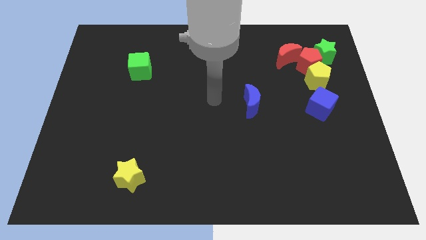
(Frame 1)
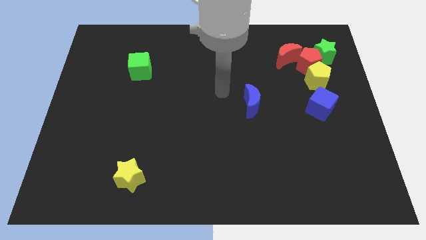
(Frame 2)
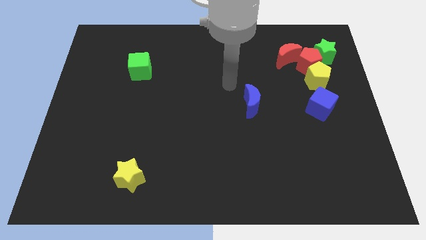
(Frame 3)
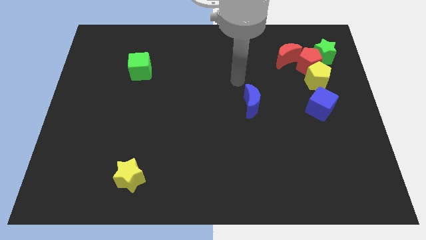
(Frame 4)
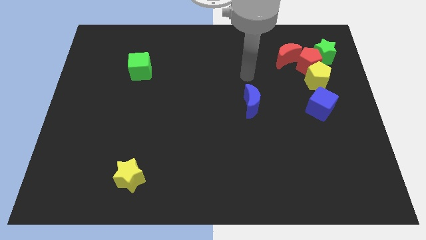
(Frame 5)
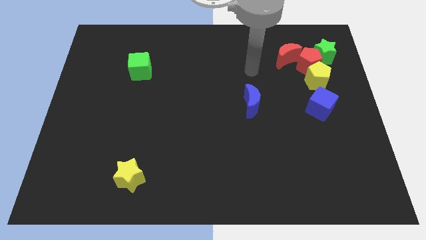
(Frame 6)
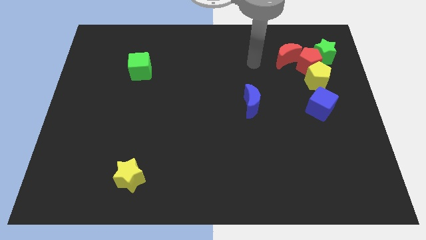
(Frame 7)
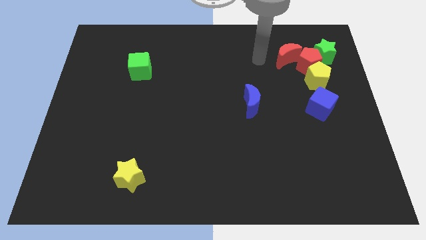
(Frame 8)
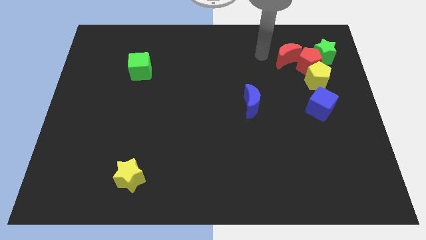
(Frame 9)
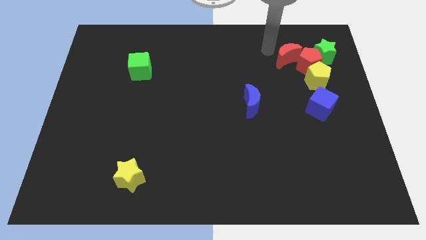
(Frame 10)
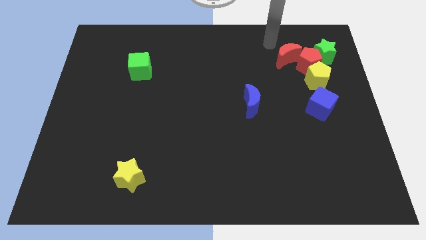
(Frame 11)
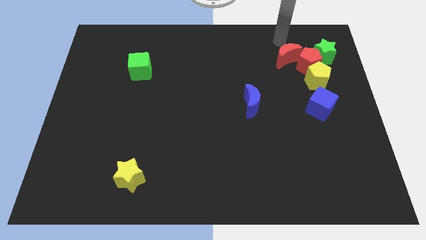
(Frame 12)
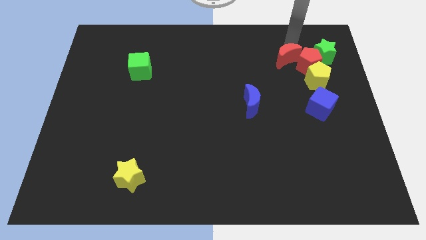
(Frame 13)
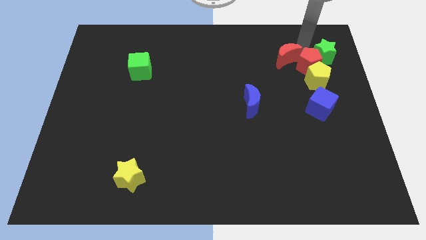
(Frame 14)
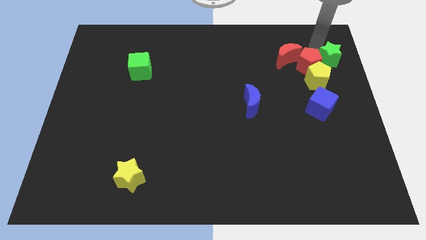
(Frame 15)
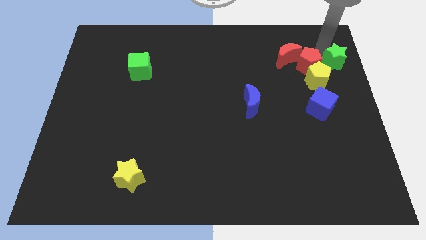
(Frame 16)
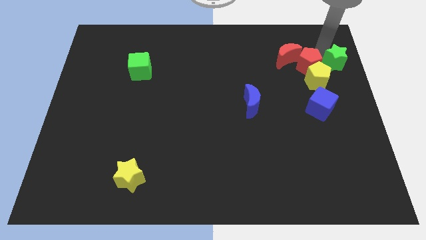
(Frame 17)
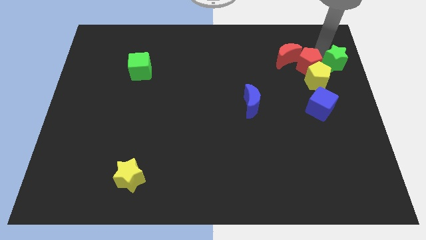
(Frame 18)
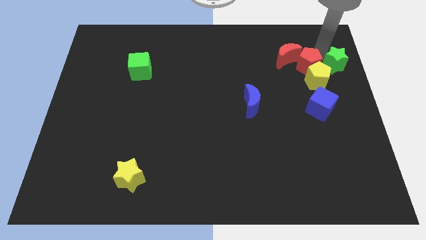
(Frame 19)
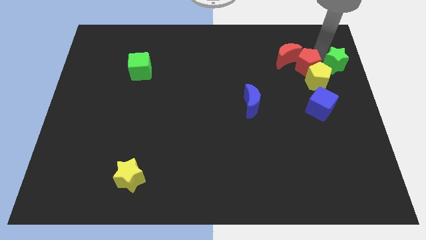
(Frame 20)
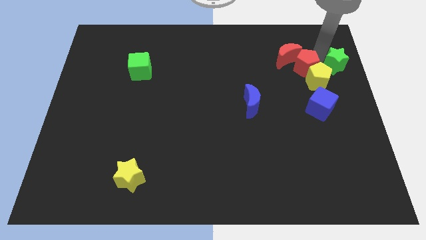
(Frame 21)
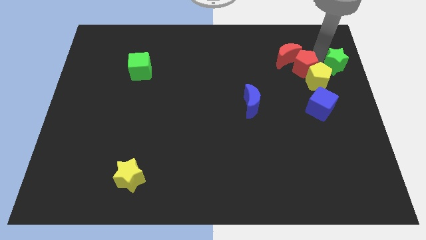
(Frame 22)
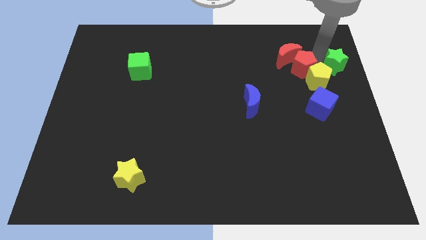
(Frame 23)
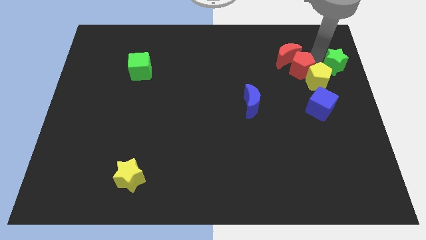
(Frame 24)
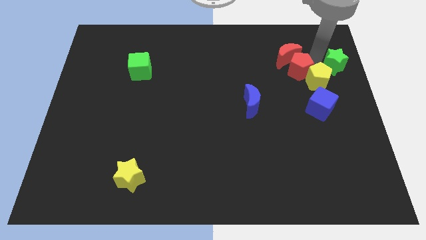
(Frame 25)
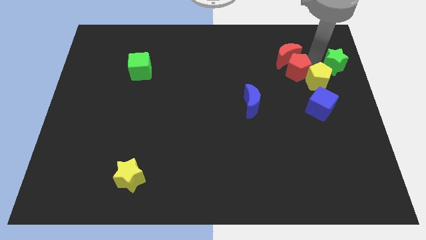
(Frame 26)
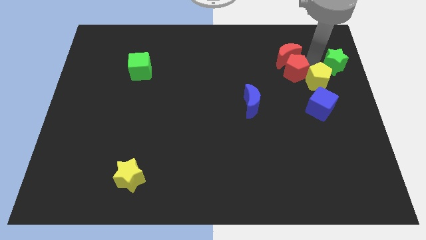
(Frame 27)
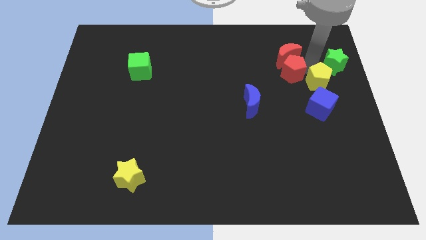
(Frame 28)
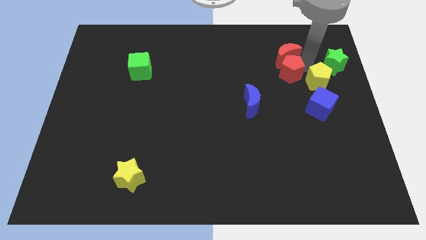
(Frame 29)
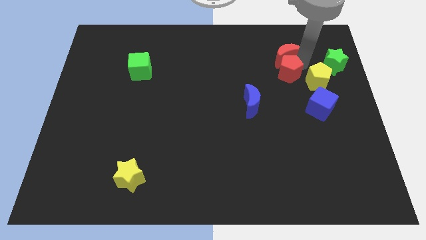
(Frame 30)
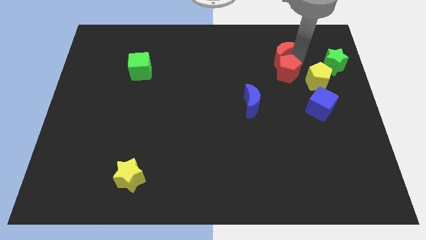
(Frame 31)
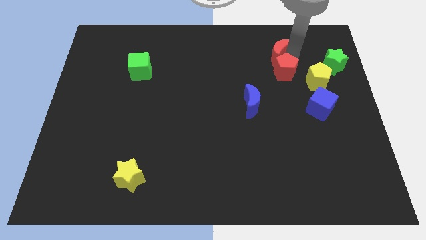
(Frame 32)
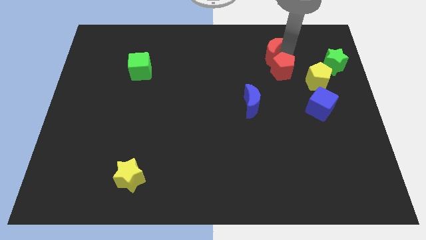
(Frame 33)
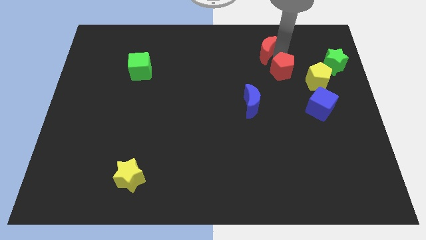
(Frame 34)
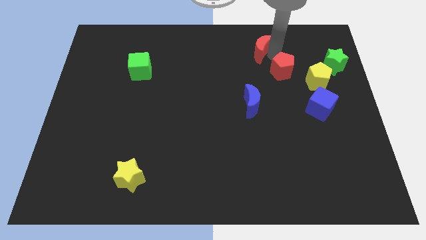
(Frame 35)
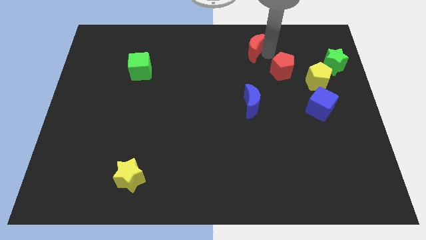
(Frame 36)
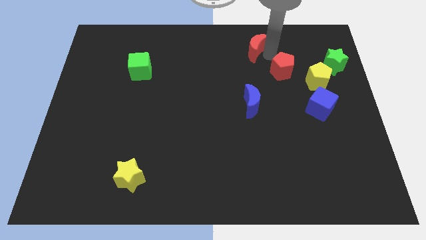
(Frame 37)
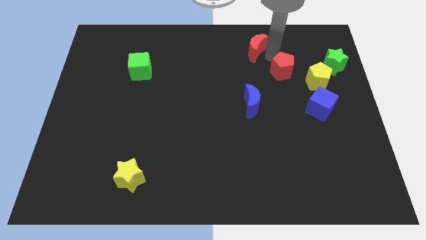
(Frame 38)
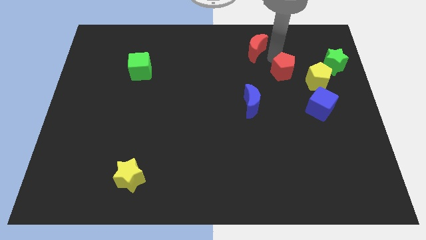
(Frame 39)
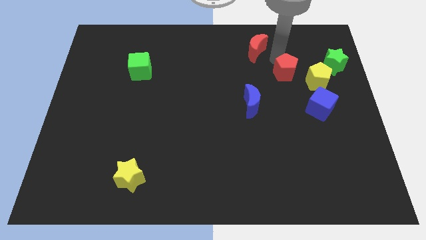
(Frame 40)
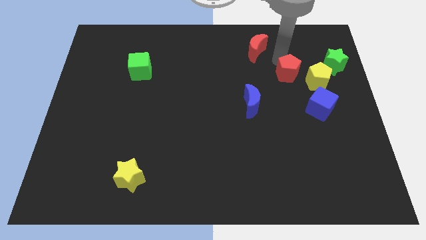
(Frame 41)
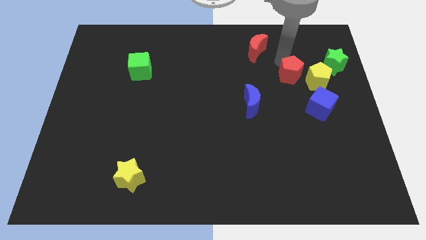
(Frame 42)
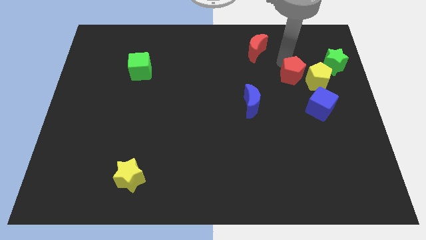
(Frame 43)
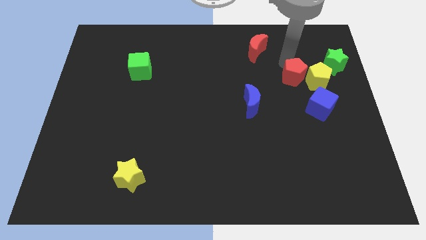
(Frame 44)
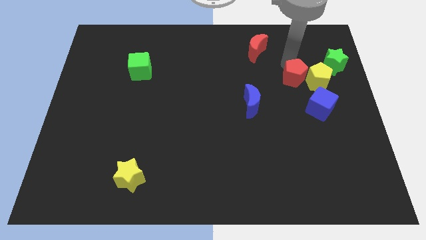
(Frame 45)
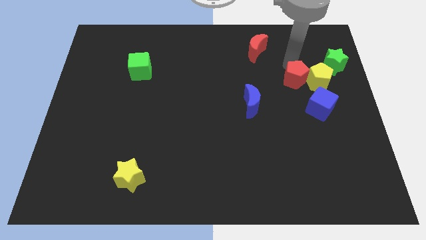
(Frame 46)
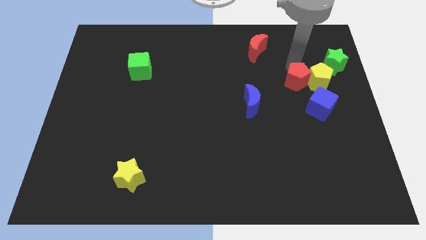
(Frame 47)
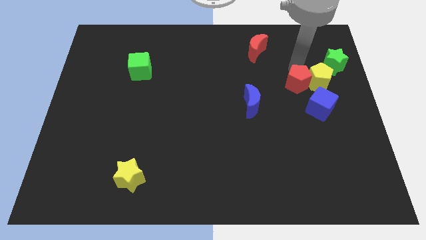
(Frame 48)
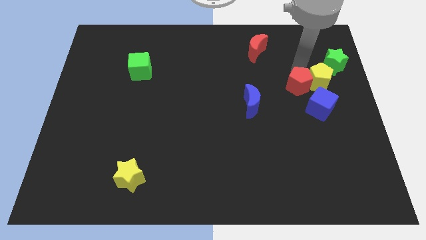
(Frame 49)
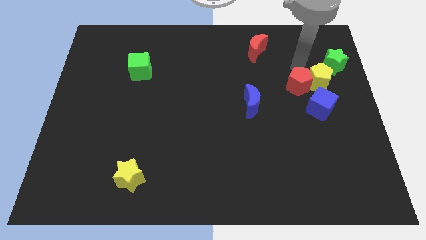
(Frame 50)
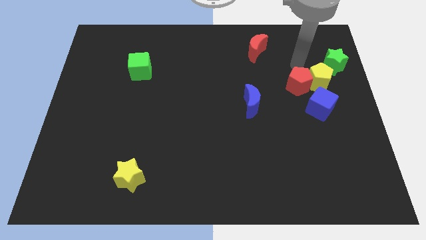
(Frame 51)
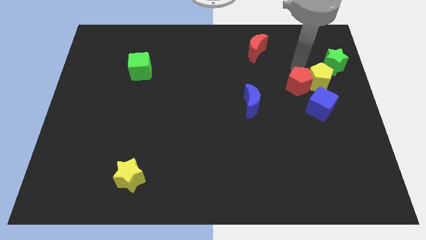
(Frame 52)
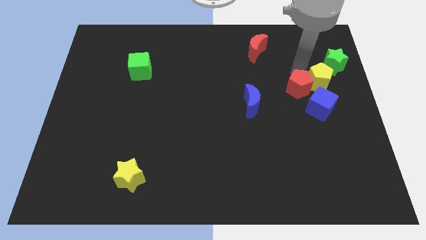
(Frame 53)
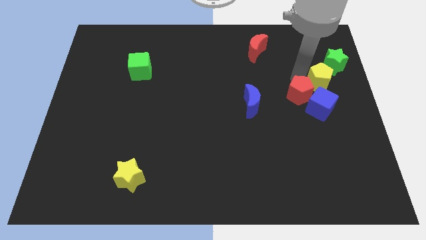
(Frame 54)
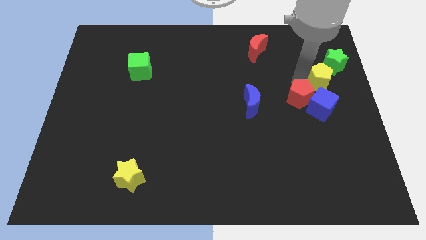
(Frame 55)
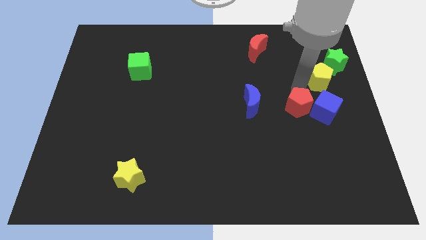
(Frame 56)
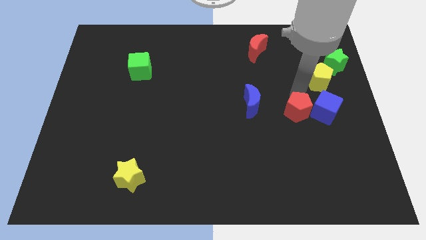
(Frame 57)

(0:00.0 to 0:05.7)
put the red pentagon diagonally down and to the left of the blue cube

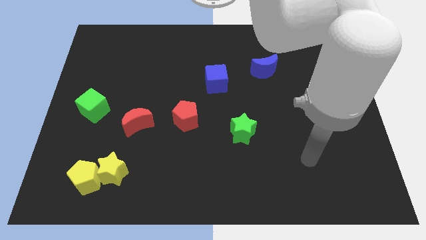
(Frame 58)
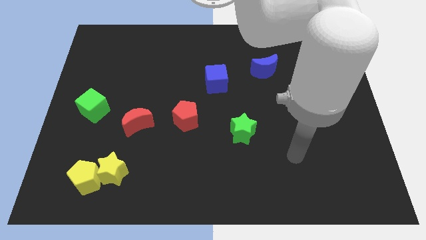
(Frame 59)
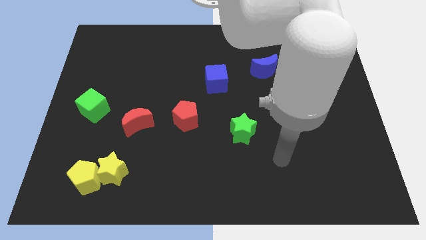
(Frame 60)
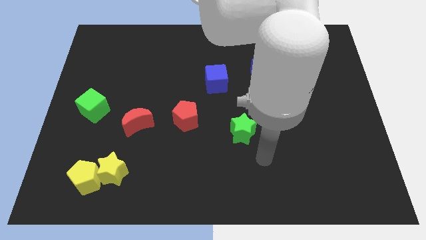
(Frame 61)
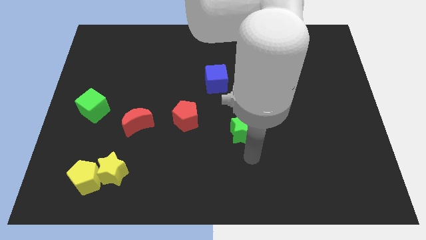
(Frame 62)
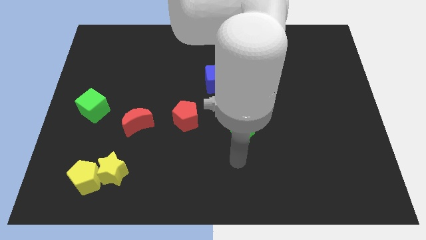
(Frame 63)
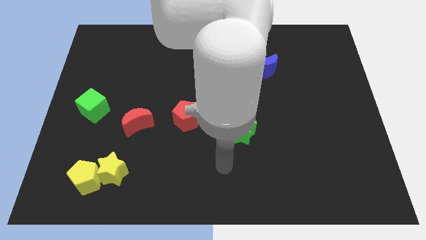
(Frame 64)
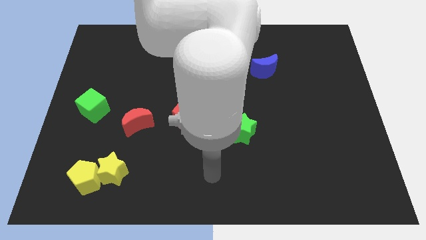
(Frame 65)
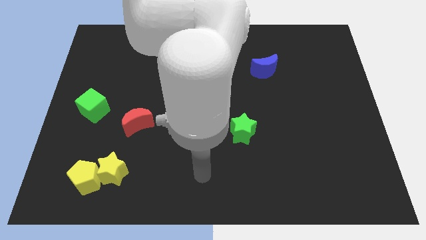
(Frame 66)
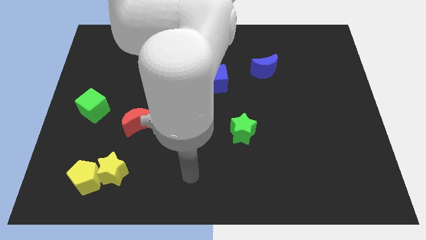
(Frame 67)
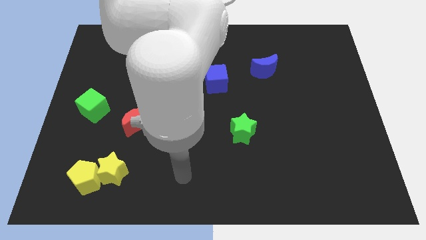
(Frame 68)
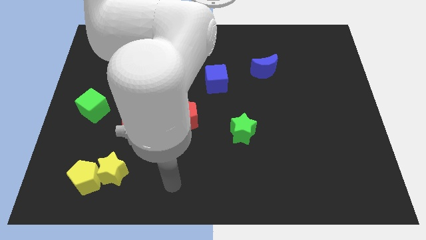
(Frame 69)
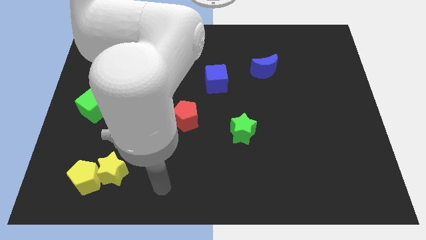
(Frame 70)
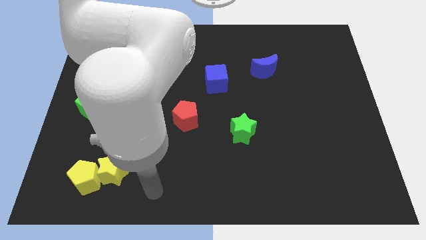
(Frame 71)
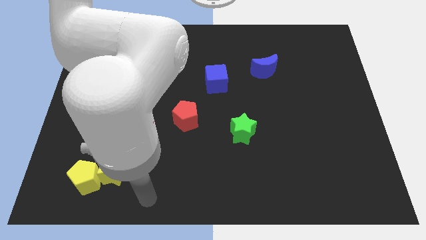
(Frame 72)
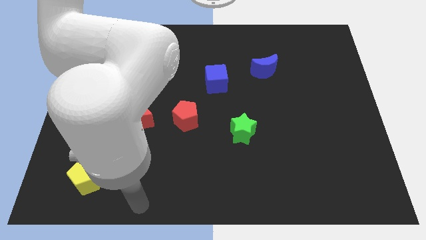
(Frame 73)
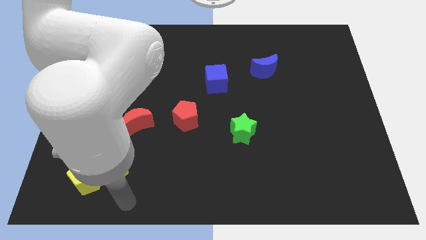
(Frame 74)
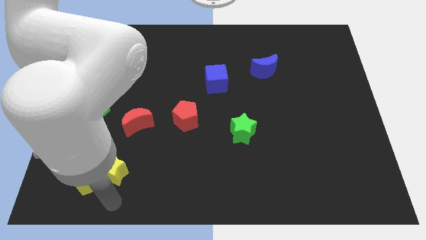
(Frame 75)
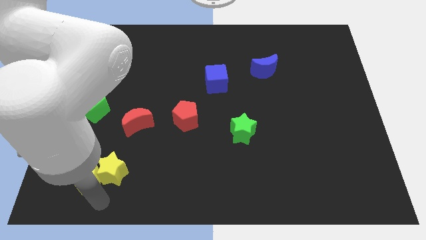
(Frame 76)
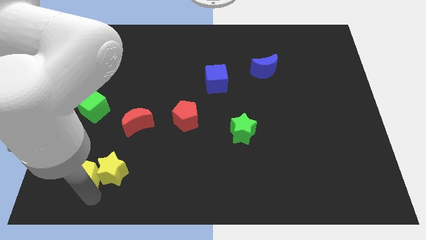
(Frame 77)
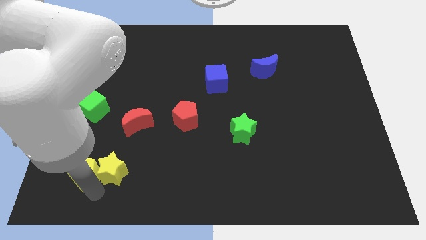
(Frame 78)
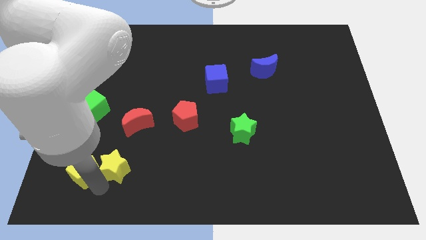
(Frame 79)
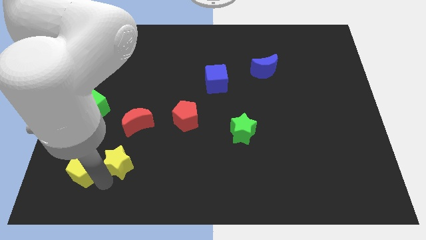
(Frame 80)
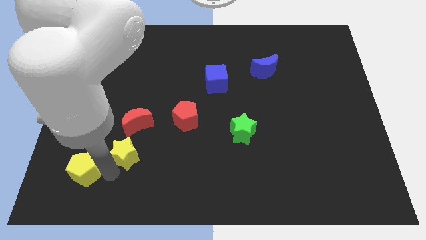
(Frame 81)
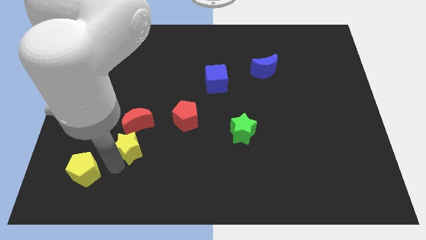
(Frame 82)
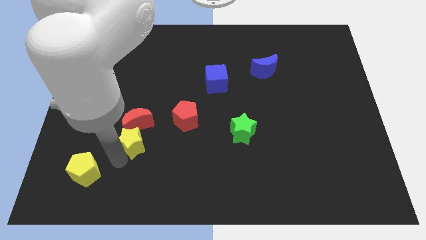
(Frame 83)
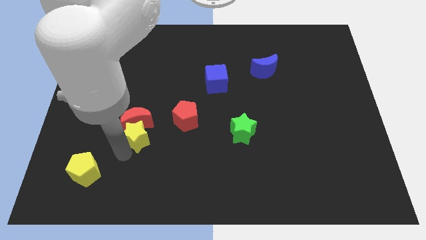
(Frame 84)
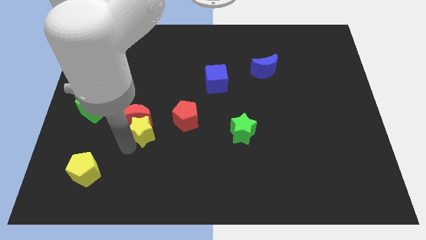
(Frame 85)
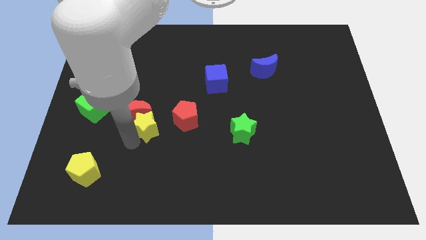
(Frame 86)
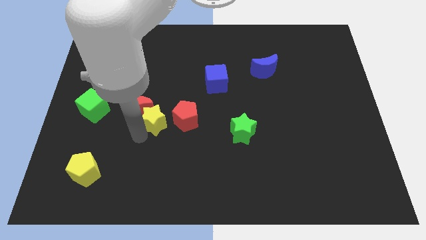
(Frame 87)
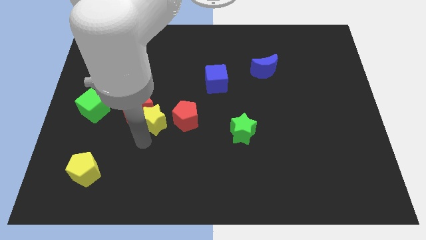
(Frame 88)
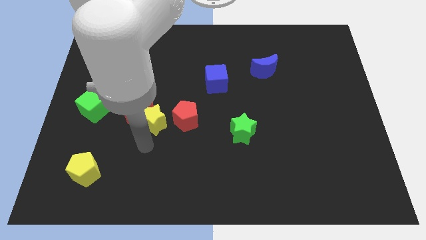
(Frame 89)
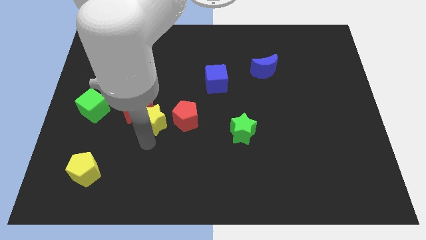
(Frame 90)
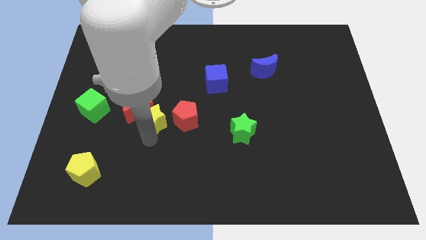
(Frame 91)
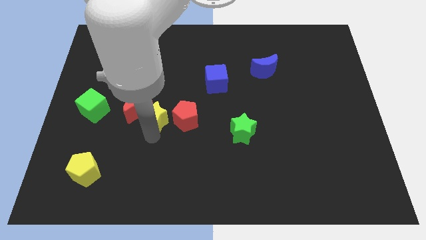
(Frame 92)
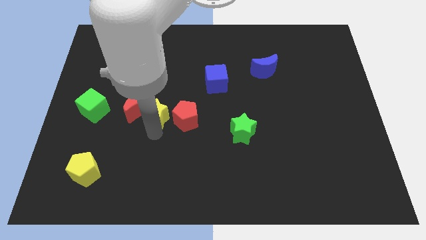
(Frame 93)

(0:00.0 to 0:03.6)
move the yellow star to the top right of the red moon
